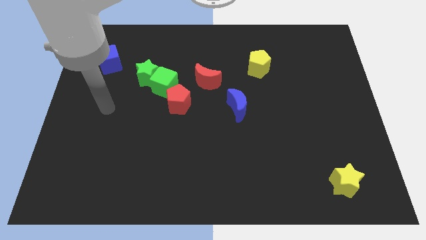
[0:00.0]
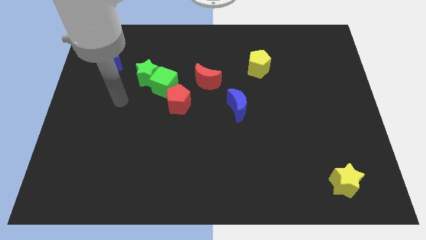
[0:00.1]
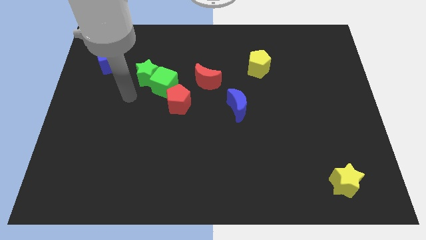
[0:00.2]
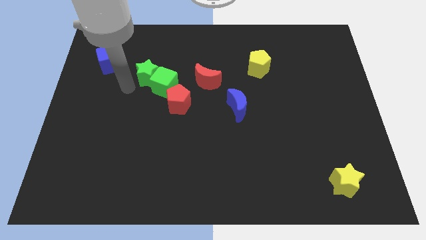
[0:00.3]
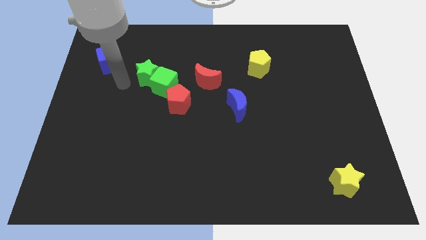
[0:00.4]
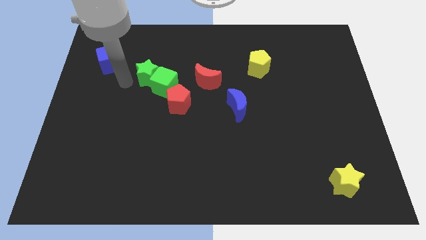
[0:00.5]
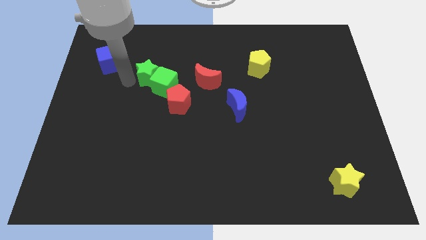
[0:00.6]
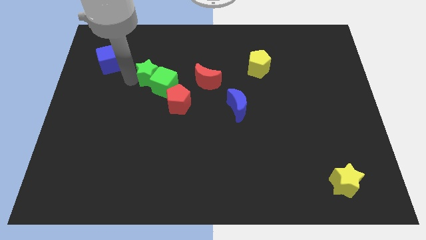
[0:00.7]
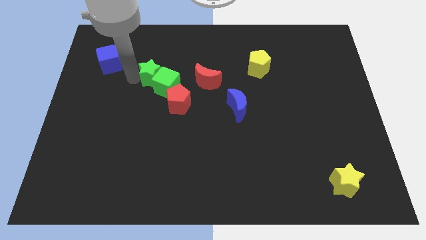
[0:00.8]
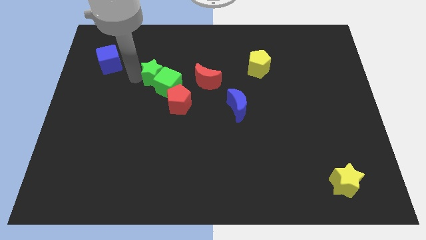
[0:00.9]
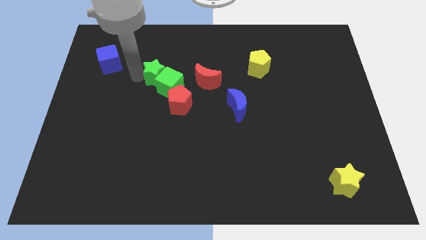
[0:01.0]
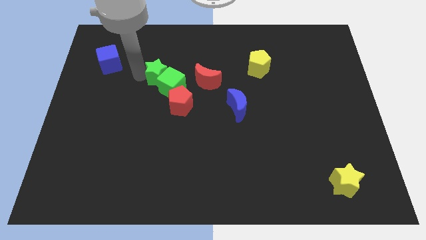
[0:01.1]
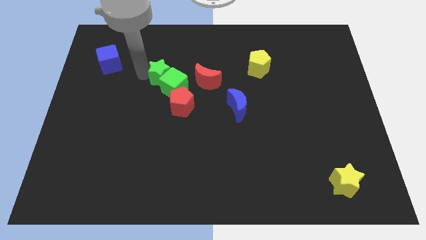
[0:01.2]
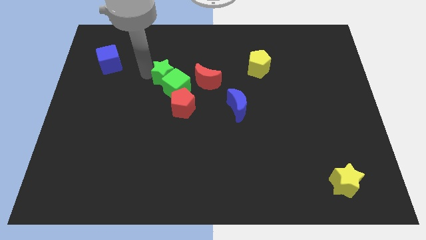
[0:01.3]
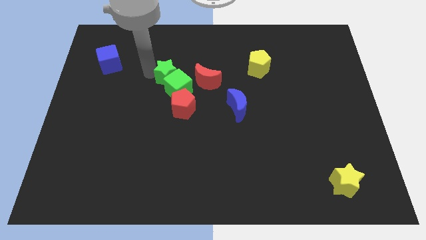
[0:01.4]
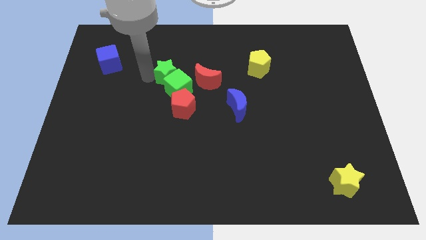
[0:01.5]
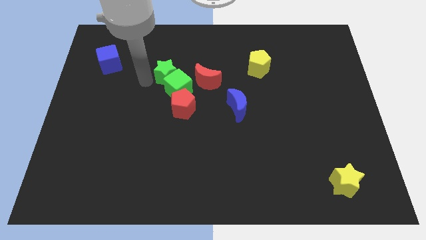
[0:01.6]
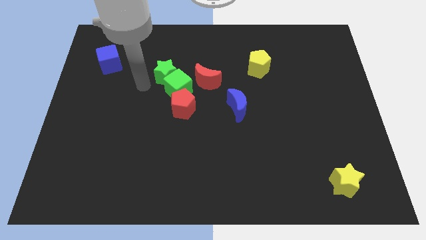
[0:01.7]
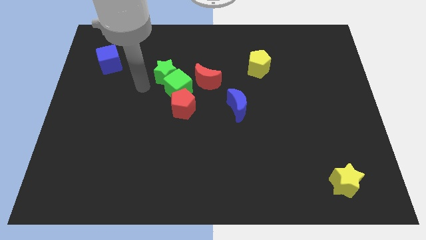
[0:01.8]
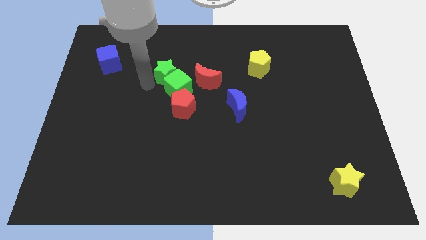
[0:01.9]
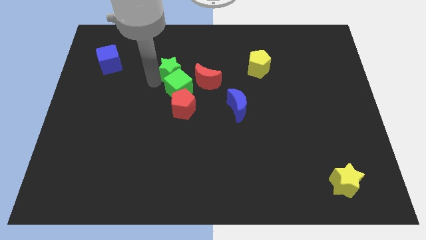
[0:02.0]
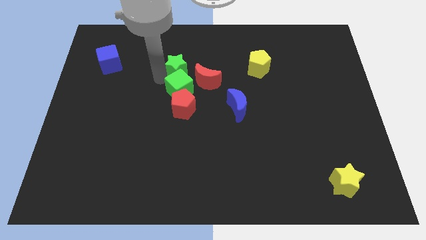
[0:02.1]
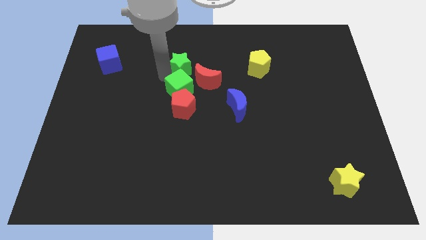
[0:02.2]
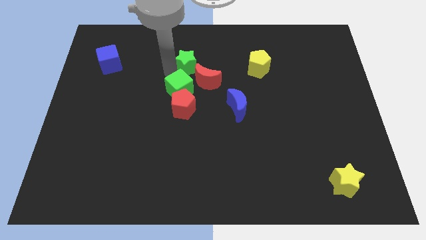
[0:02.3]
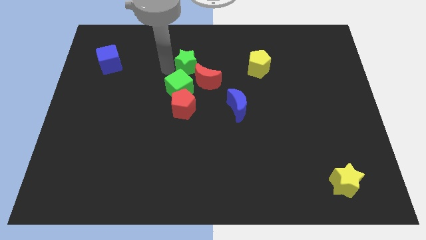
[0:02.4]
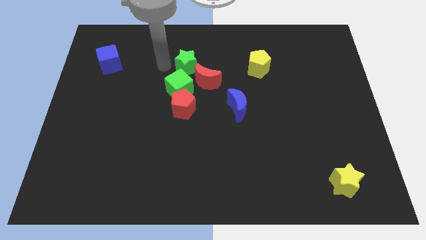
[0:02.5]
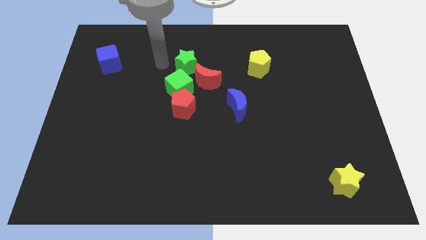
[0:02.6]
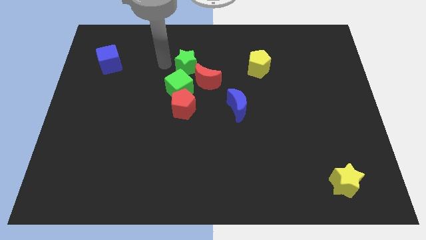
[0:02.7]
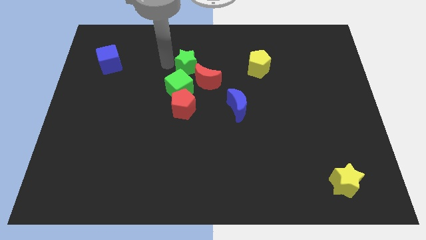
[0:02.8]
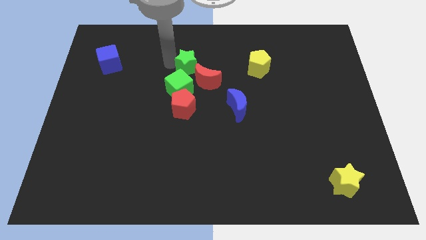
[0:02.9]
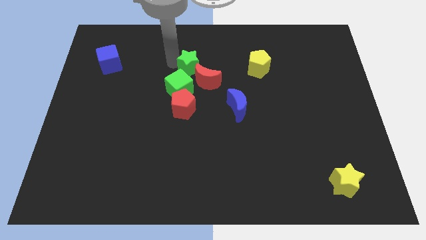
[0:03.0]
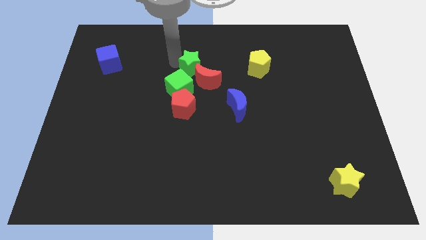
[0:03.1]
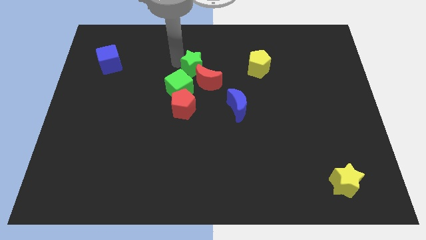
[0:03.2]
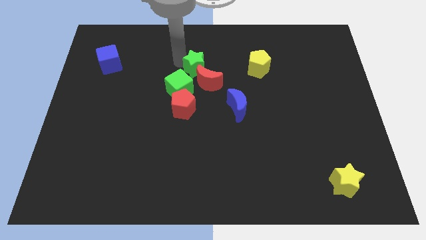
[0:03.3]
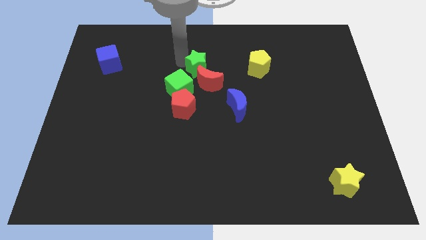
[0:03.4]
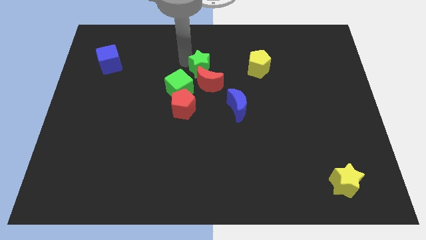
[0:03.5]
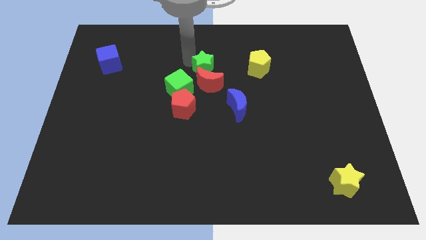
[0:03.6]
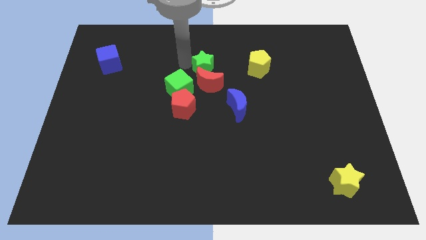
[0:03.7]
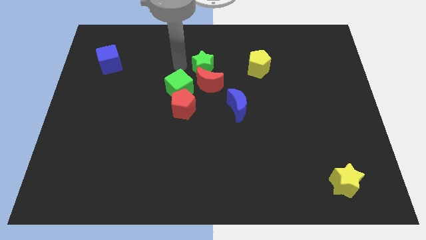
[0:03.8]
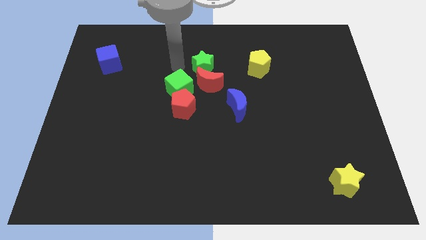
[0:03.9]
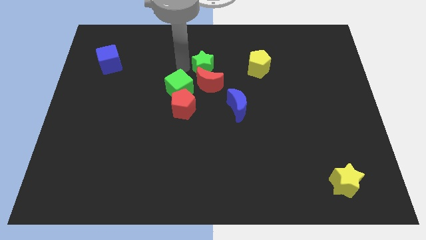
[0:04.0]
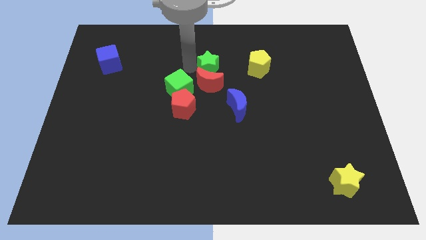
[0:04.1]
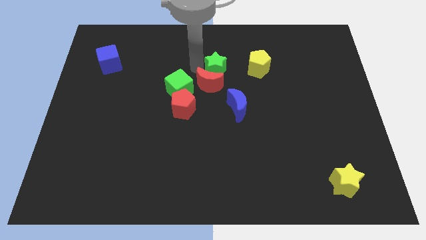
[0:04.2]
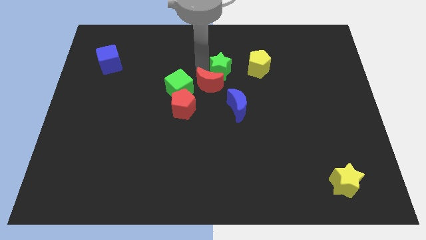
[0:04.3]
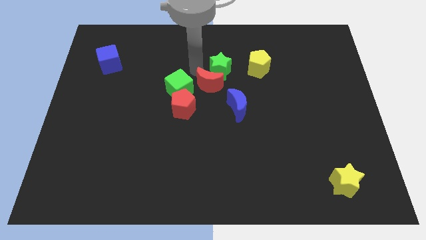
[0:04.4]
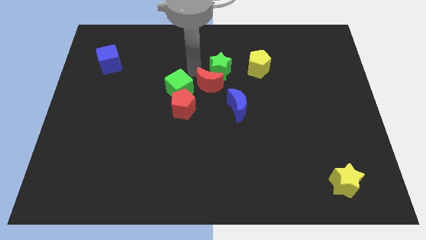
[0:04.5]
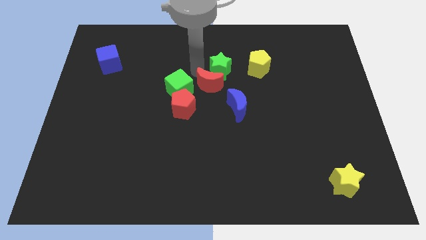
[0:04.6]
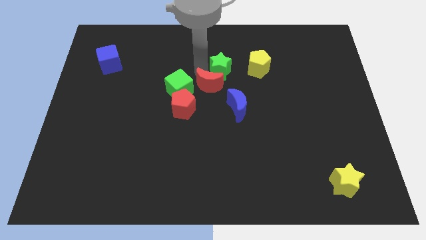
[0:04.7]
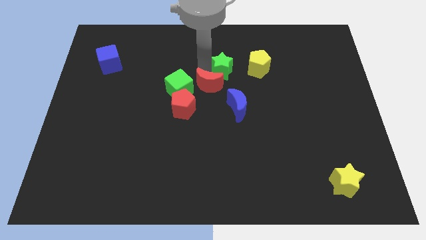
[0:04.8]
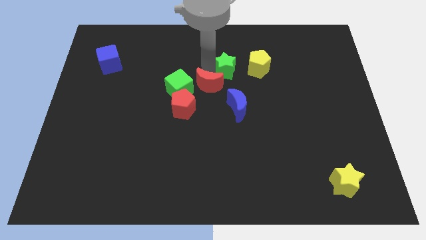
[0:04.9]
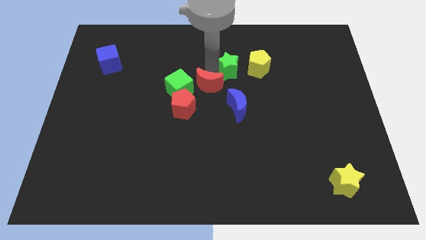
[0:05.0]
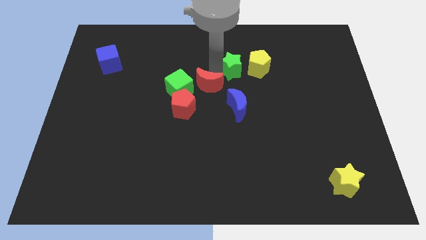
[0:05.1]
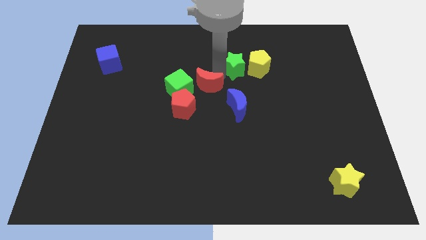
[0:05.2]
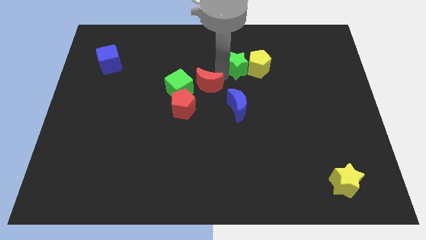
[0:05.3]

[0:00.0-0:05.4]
slide the green star towards the yellow pentagon

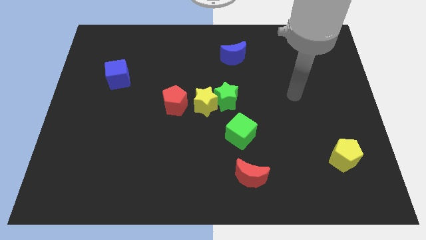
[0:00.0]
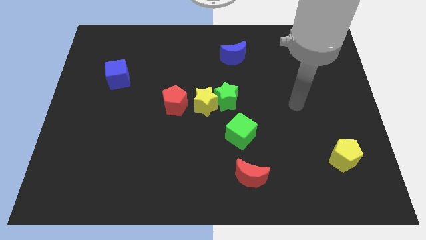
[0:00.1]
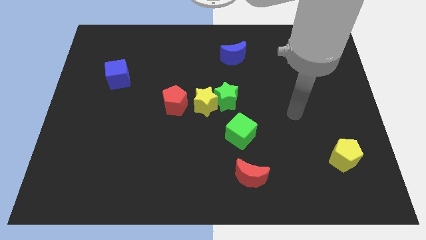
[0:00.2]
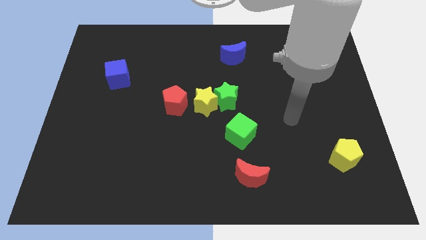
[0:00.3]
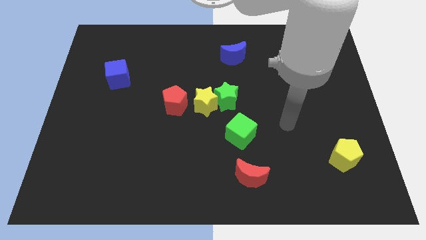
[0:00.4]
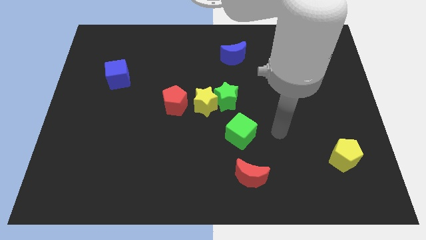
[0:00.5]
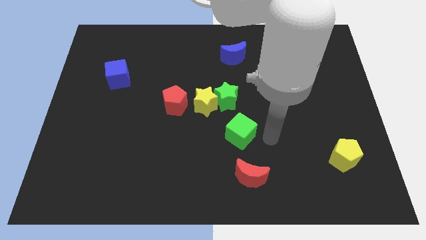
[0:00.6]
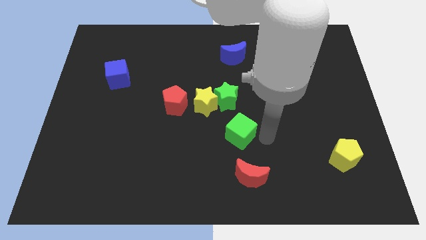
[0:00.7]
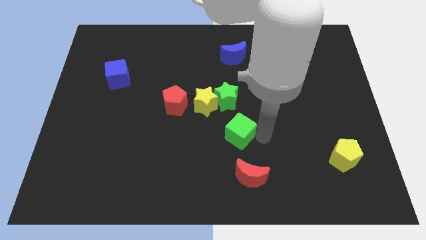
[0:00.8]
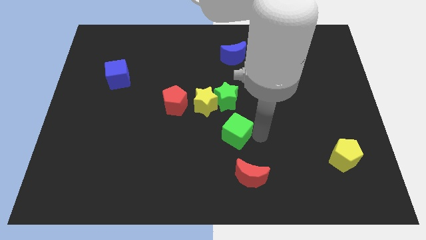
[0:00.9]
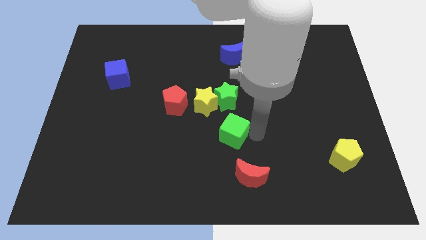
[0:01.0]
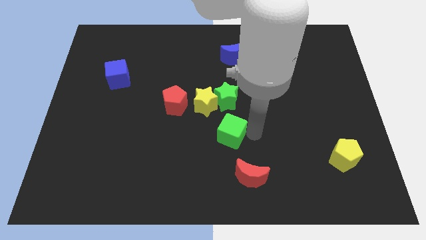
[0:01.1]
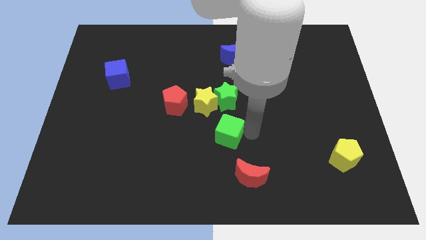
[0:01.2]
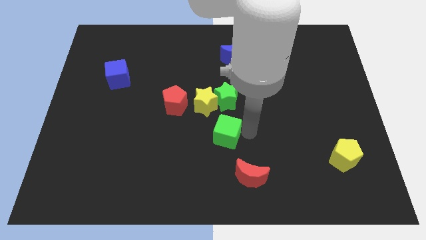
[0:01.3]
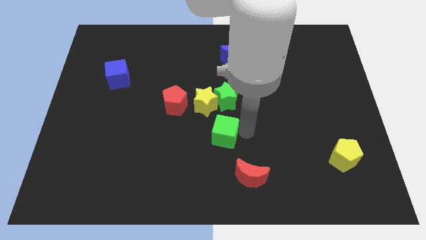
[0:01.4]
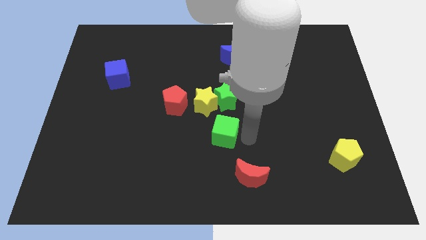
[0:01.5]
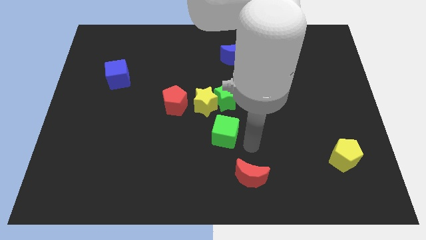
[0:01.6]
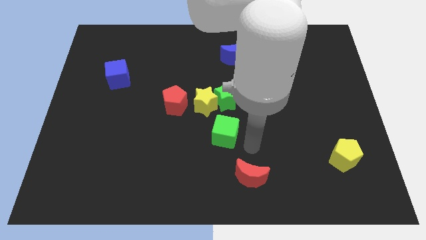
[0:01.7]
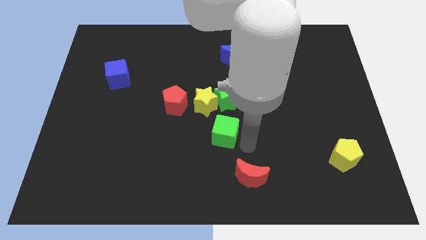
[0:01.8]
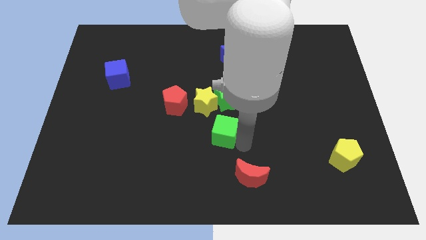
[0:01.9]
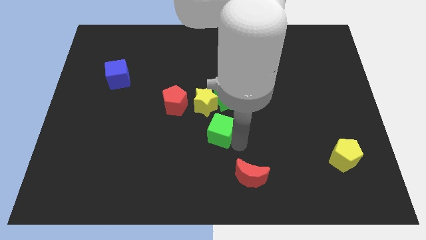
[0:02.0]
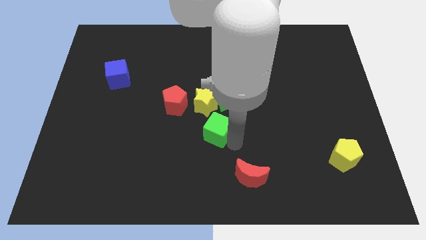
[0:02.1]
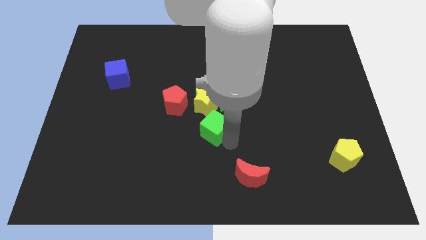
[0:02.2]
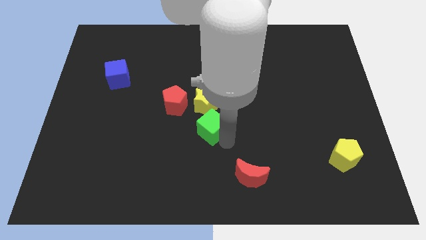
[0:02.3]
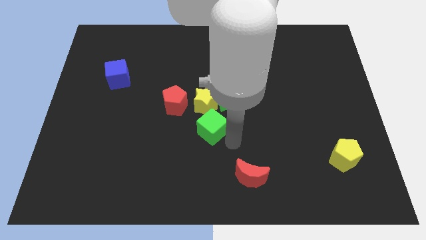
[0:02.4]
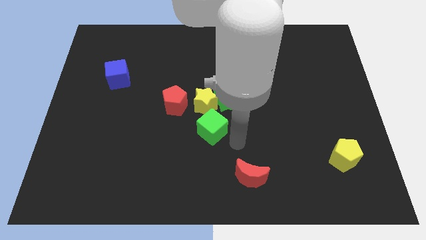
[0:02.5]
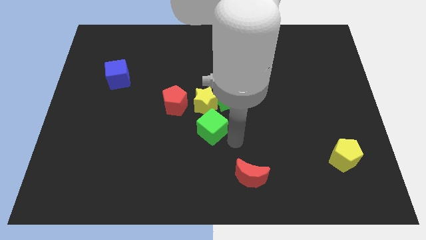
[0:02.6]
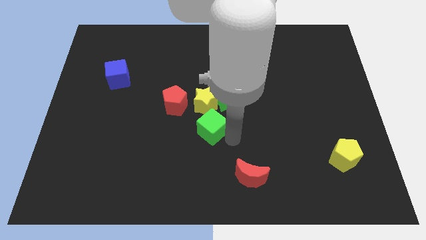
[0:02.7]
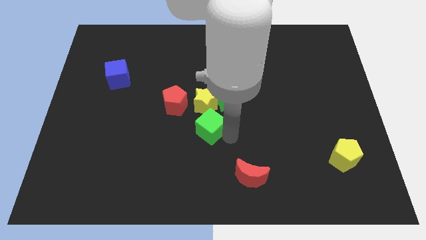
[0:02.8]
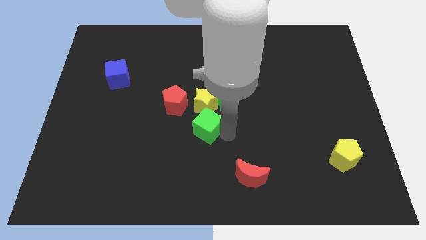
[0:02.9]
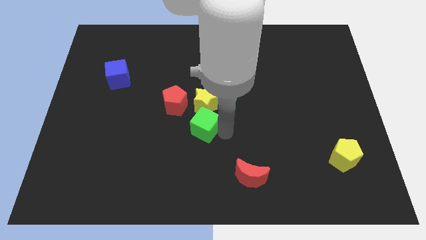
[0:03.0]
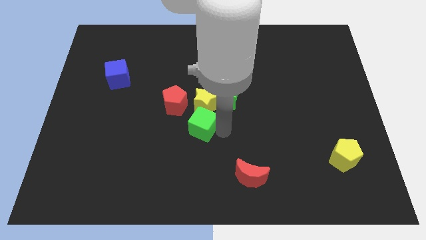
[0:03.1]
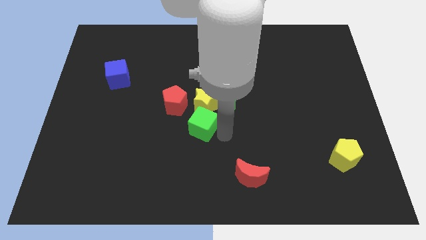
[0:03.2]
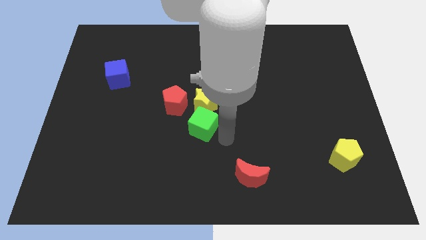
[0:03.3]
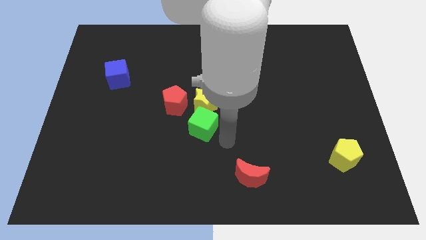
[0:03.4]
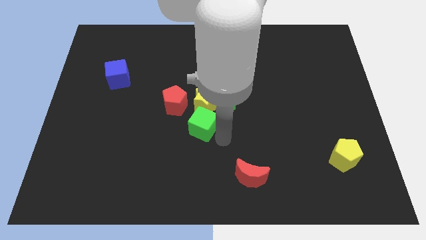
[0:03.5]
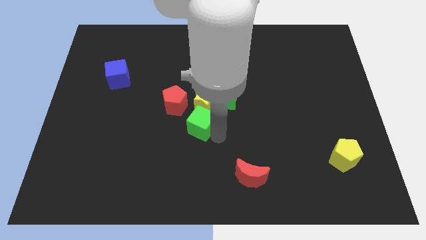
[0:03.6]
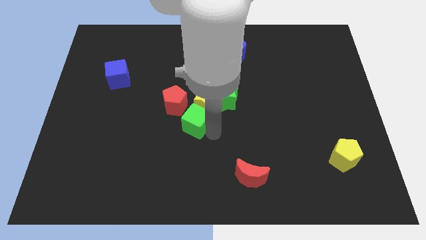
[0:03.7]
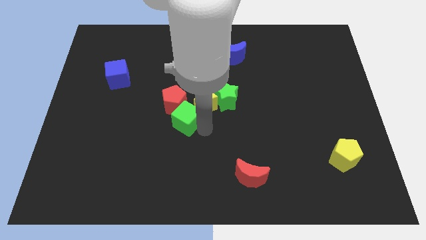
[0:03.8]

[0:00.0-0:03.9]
push the green cube close to the red pentagon
